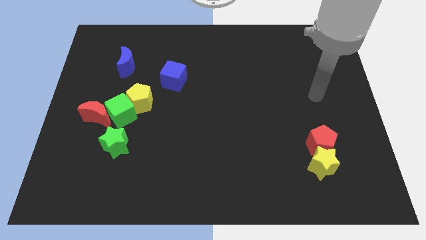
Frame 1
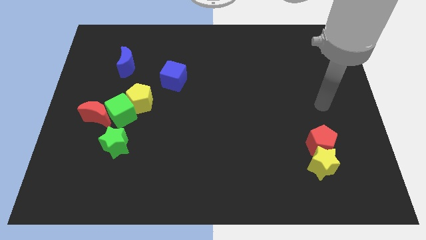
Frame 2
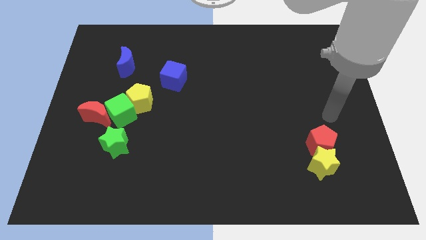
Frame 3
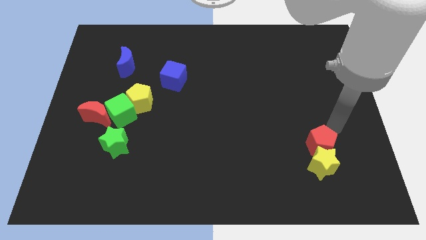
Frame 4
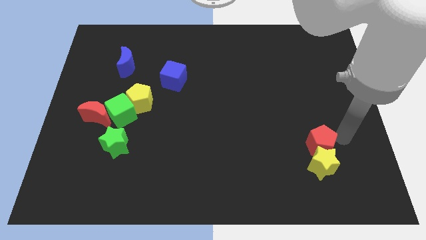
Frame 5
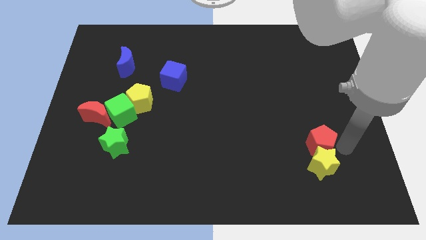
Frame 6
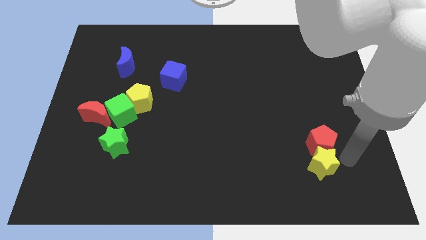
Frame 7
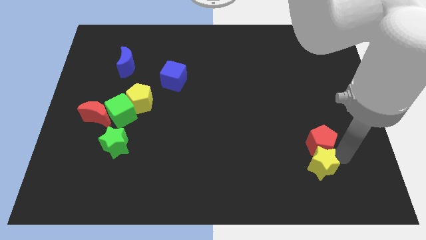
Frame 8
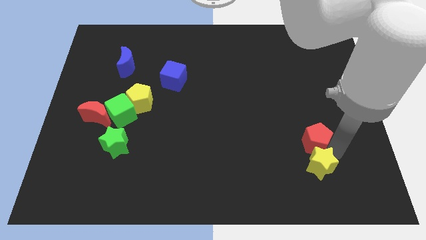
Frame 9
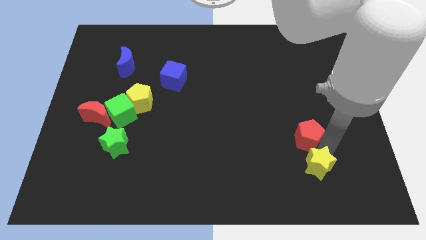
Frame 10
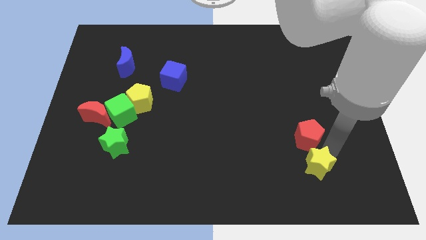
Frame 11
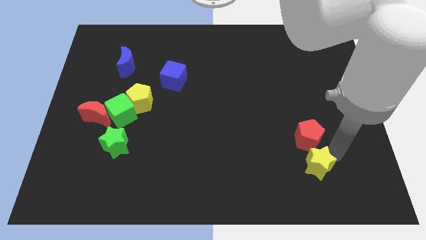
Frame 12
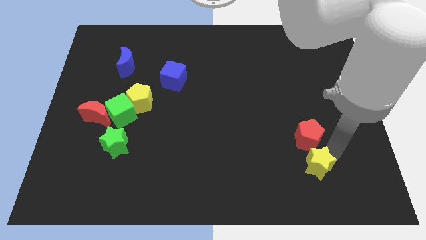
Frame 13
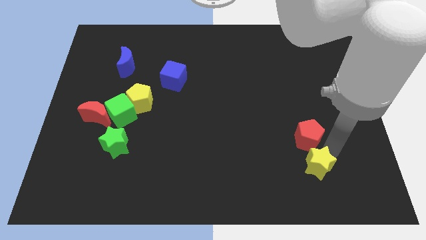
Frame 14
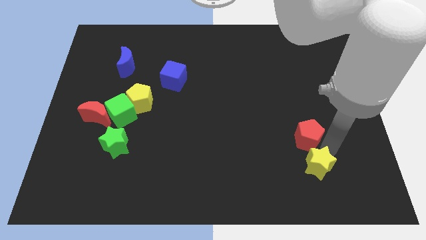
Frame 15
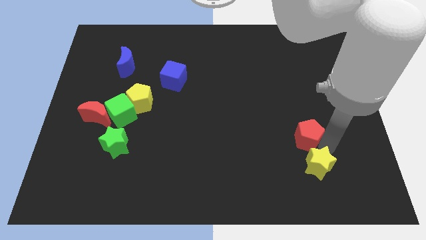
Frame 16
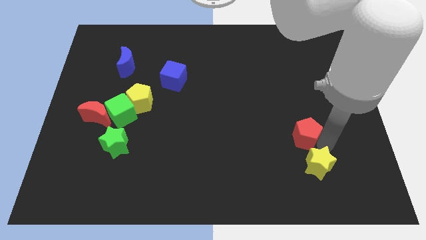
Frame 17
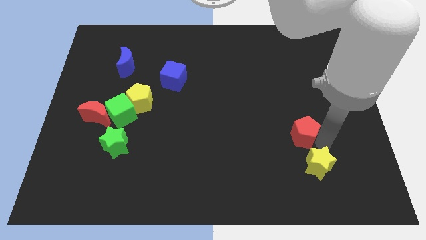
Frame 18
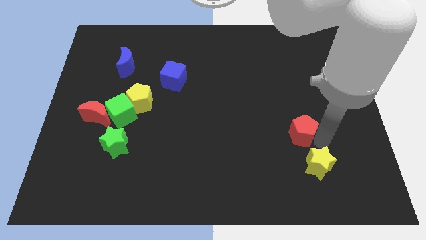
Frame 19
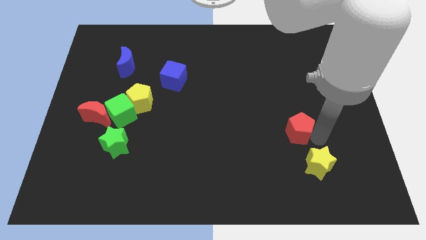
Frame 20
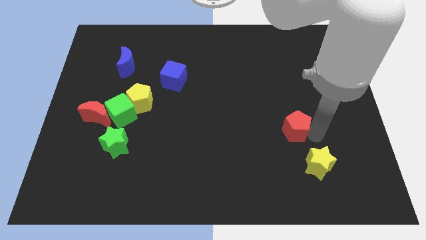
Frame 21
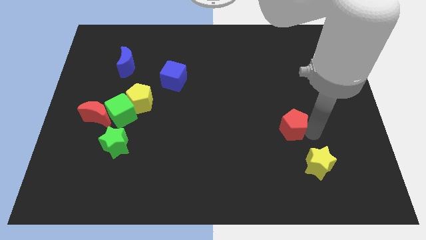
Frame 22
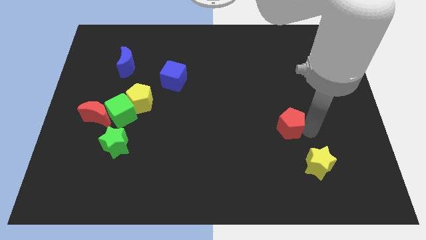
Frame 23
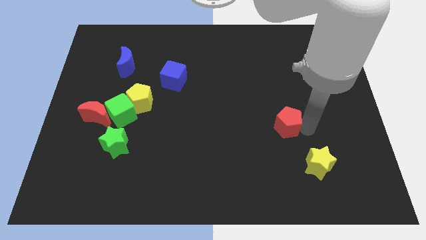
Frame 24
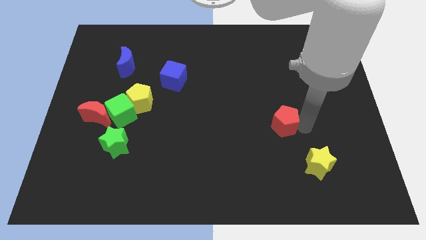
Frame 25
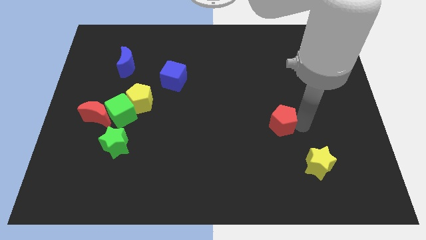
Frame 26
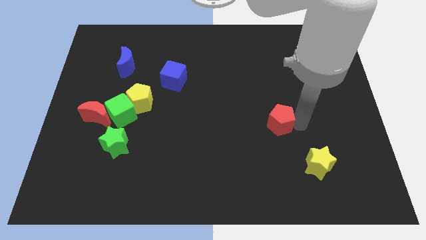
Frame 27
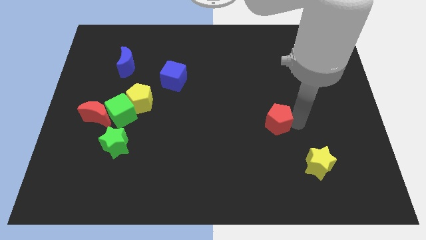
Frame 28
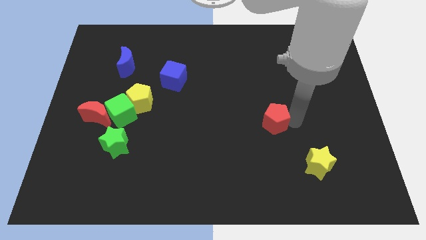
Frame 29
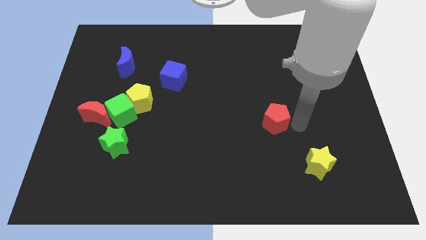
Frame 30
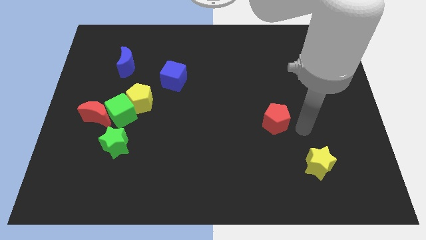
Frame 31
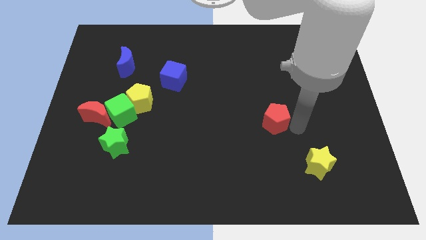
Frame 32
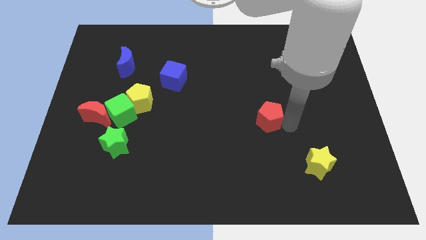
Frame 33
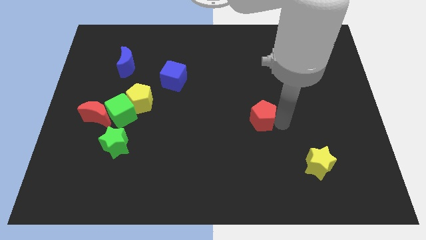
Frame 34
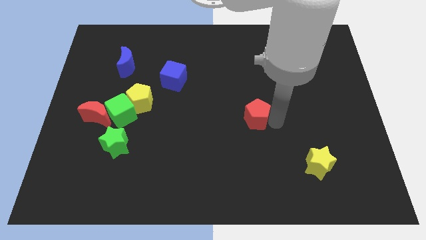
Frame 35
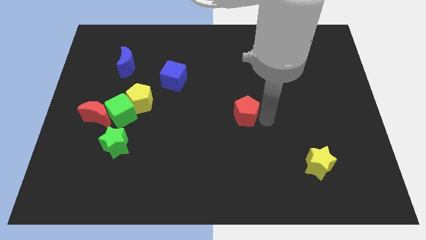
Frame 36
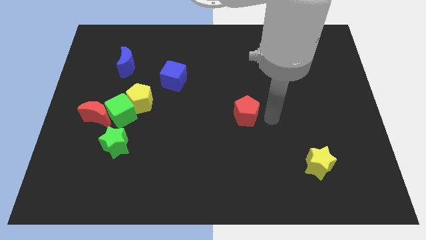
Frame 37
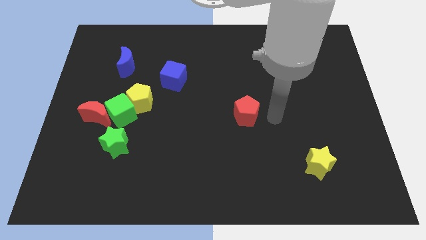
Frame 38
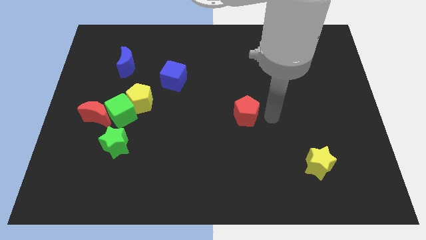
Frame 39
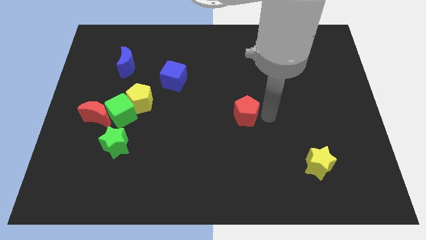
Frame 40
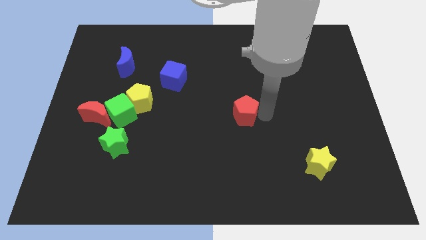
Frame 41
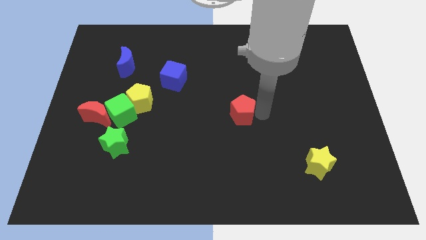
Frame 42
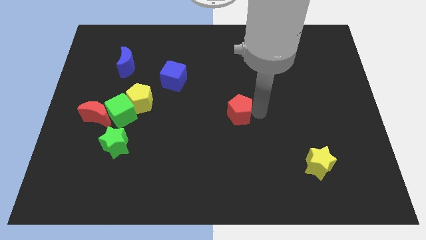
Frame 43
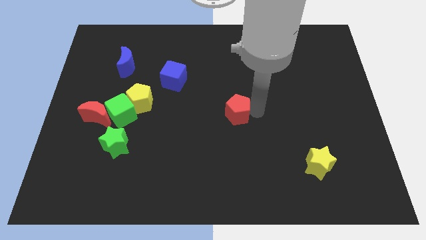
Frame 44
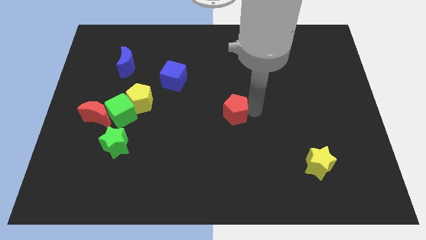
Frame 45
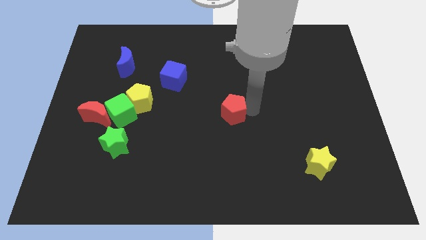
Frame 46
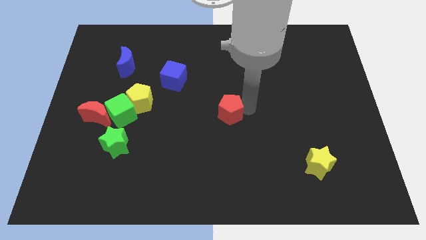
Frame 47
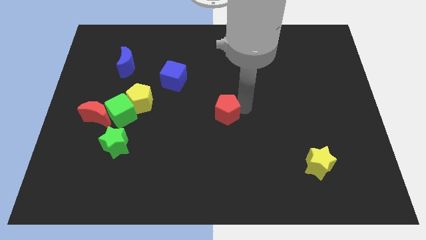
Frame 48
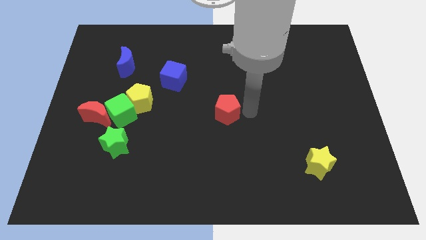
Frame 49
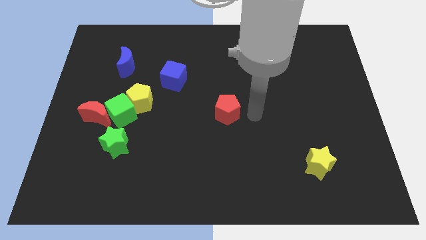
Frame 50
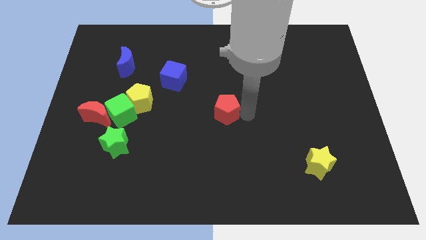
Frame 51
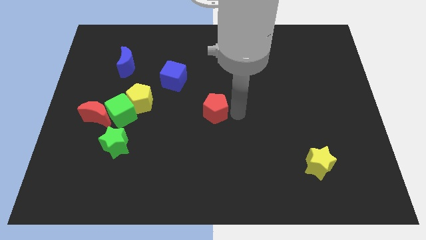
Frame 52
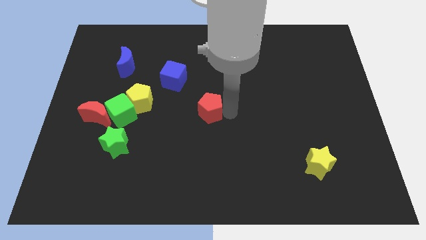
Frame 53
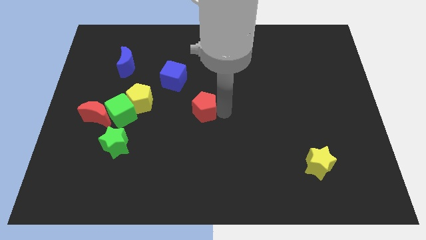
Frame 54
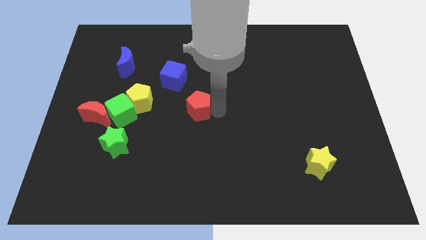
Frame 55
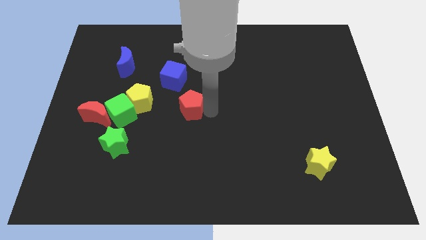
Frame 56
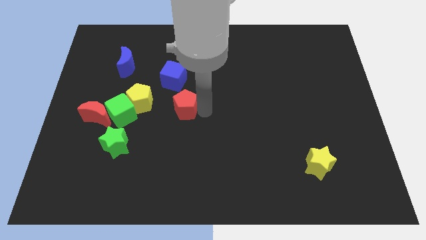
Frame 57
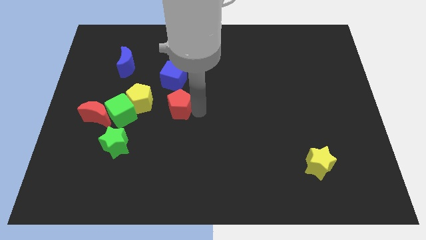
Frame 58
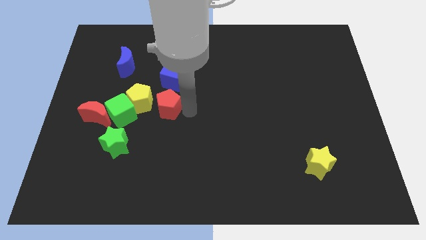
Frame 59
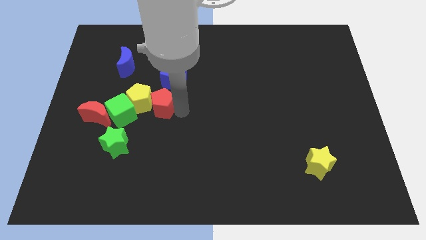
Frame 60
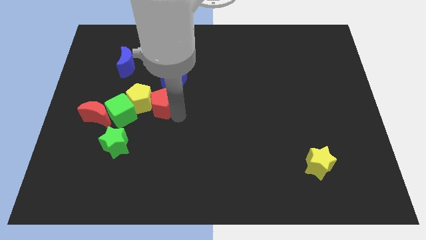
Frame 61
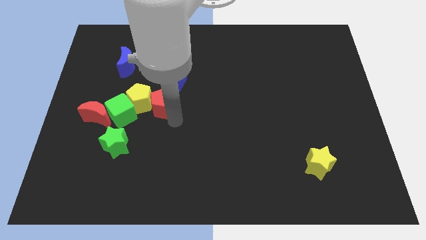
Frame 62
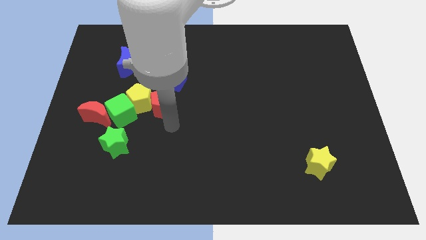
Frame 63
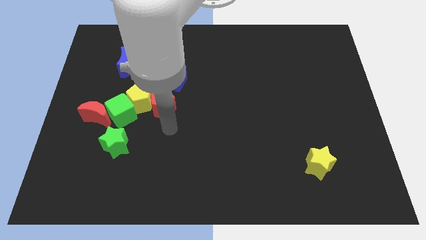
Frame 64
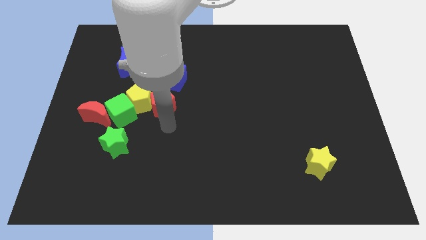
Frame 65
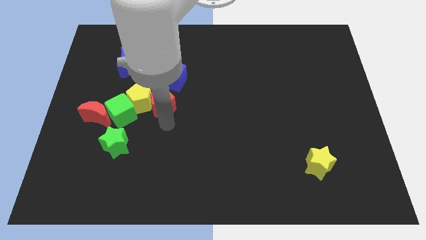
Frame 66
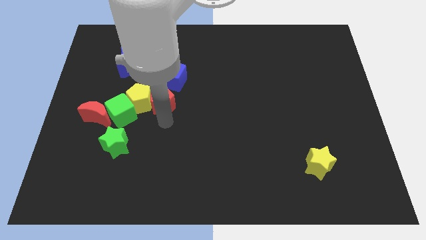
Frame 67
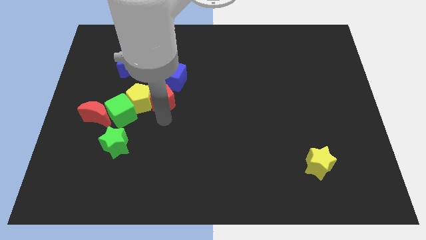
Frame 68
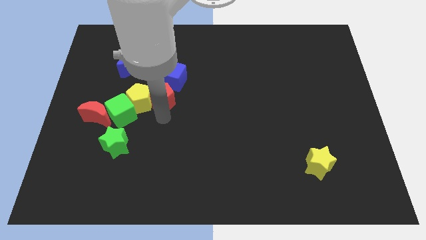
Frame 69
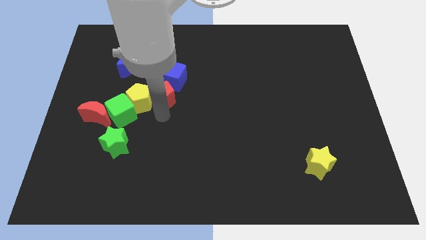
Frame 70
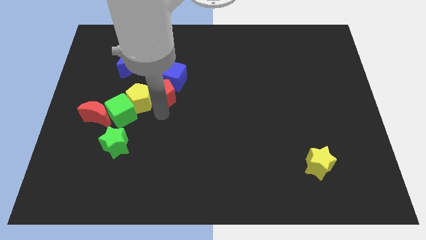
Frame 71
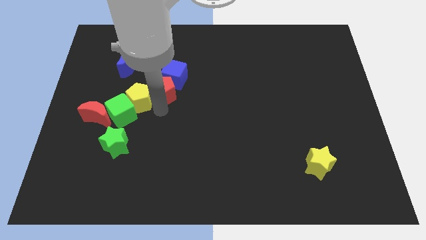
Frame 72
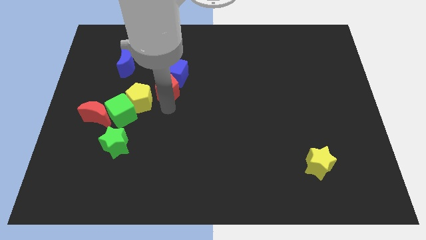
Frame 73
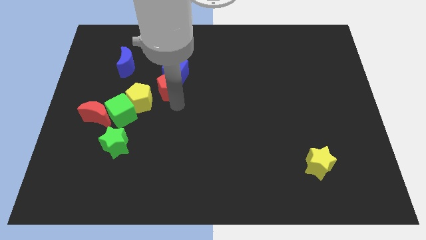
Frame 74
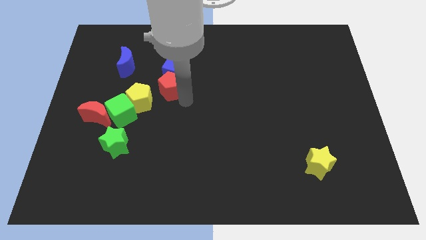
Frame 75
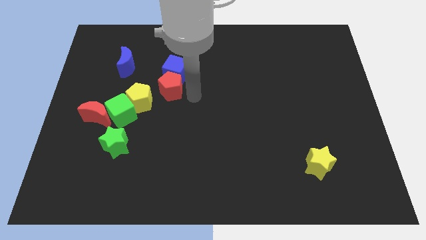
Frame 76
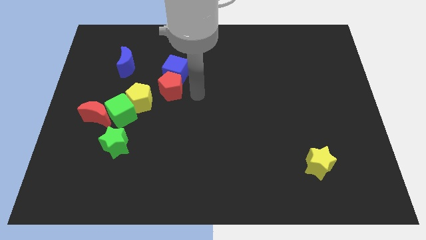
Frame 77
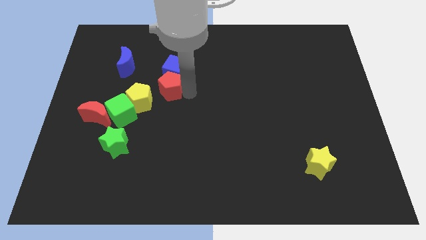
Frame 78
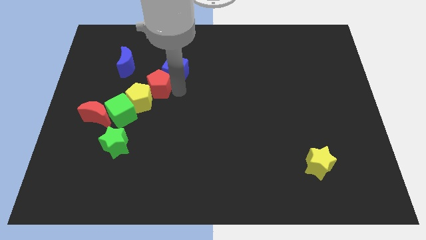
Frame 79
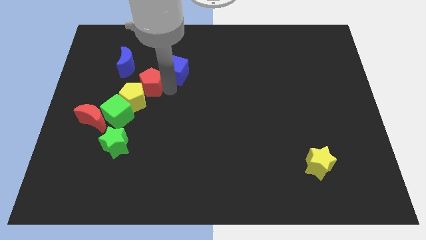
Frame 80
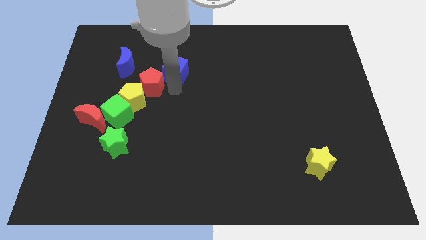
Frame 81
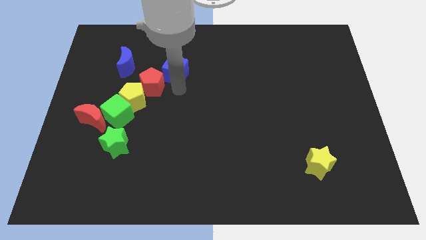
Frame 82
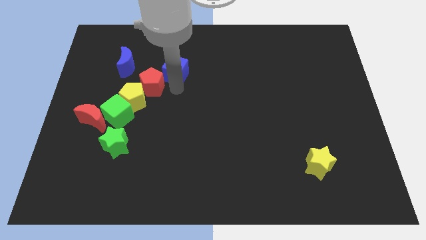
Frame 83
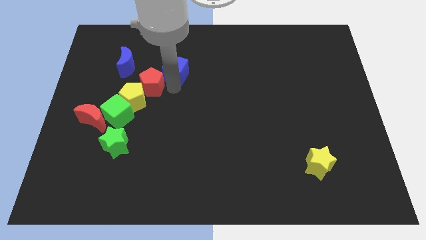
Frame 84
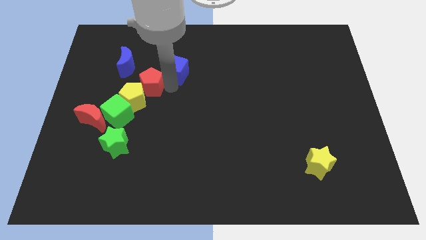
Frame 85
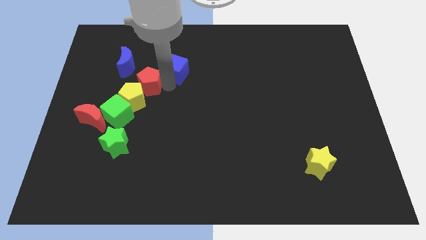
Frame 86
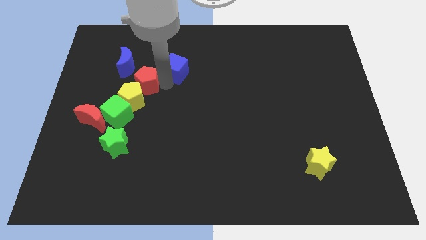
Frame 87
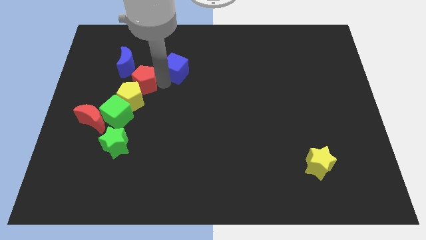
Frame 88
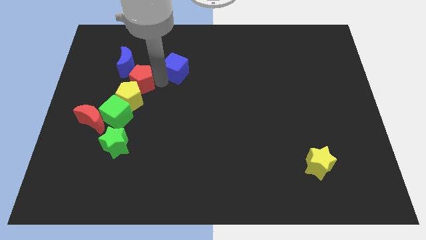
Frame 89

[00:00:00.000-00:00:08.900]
move the red pentagon to the top of the green cube
